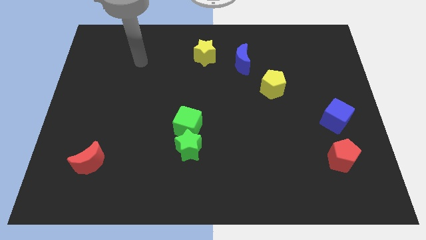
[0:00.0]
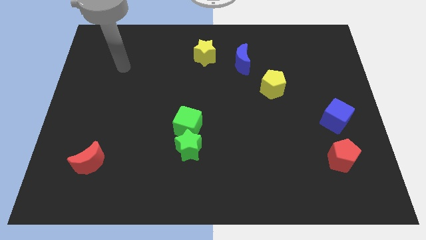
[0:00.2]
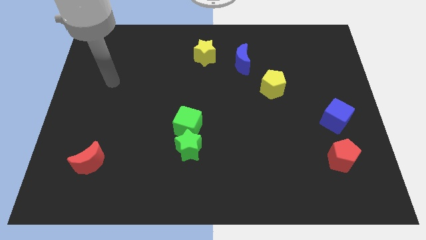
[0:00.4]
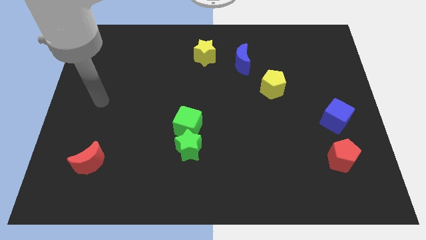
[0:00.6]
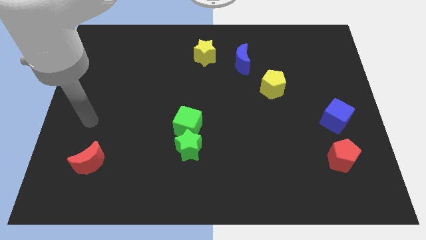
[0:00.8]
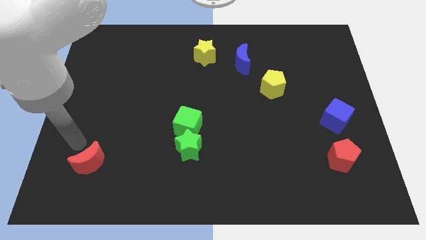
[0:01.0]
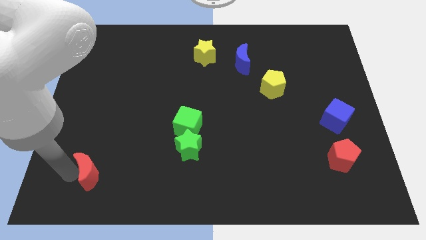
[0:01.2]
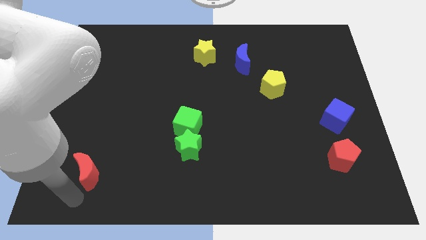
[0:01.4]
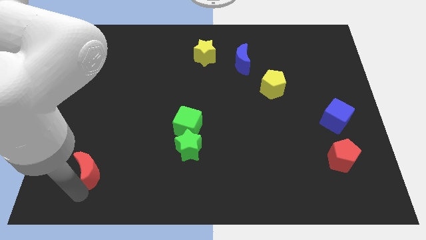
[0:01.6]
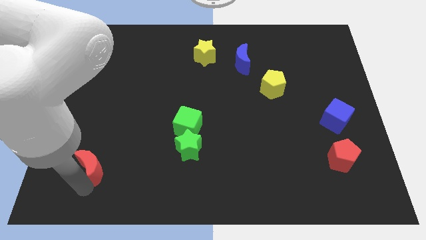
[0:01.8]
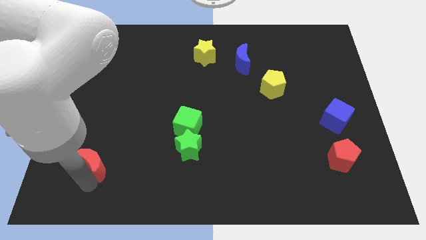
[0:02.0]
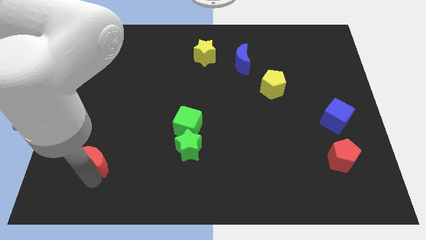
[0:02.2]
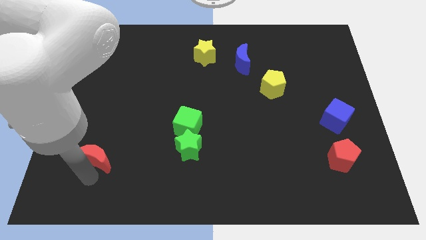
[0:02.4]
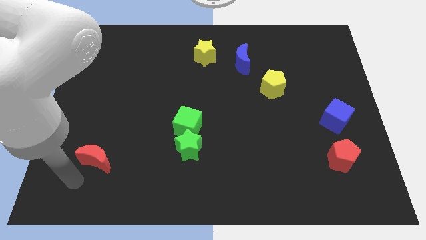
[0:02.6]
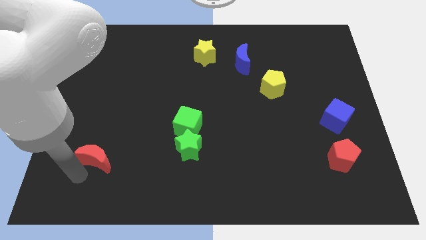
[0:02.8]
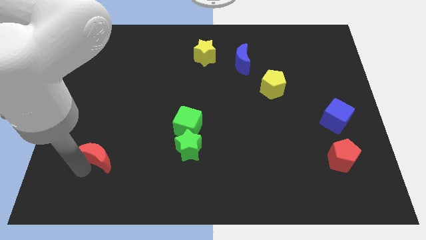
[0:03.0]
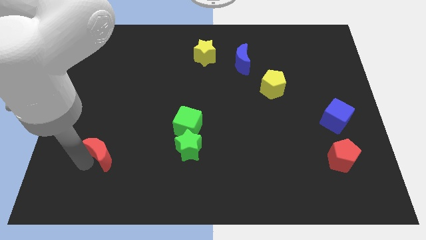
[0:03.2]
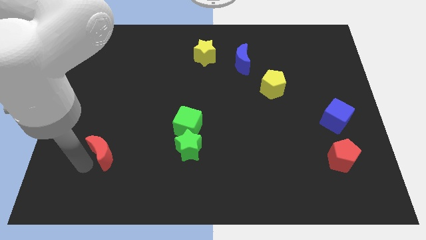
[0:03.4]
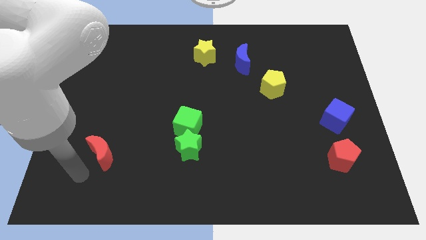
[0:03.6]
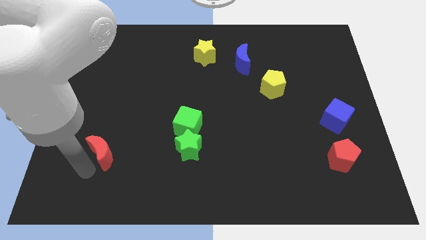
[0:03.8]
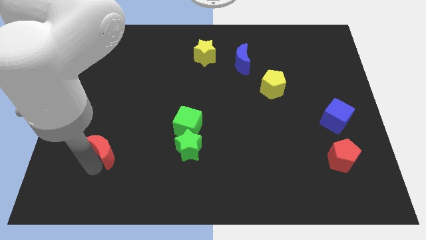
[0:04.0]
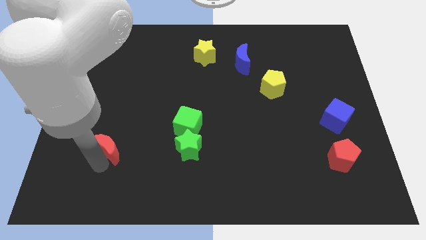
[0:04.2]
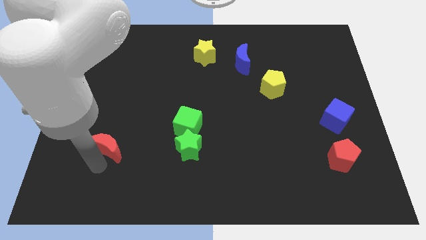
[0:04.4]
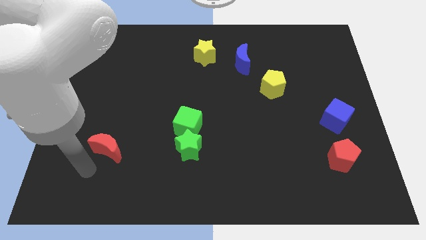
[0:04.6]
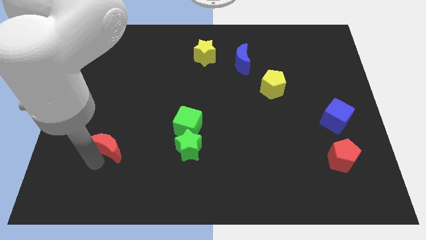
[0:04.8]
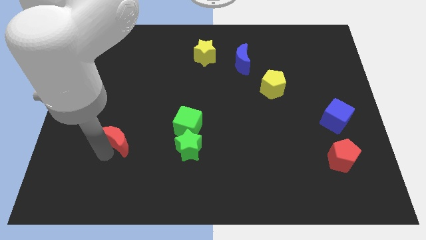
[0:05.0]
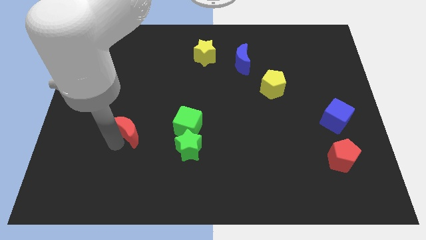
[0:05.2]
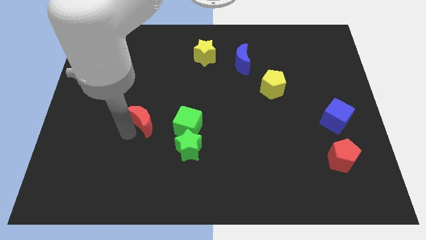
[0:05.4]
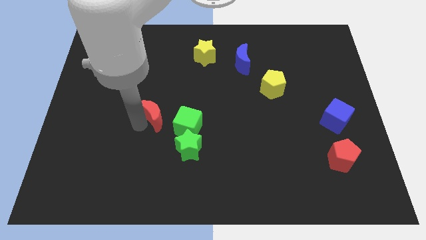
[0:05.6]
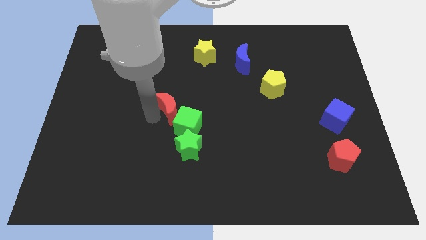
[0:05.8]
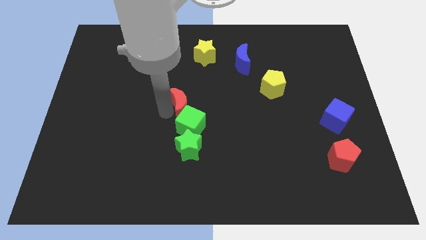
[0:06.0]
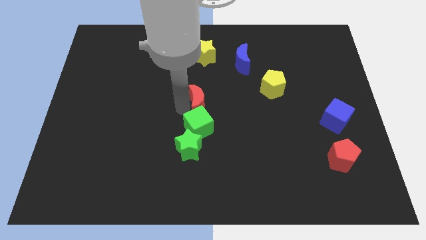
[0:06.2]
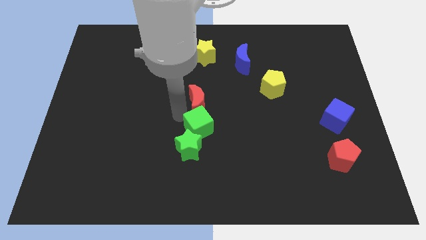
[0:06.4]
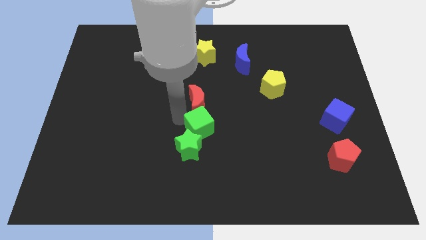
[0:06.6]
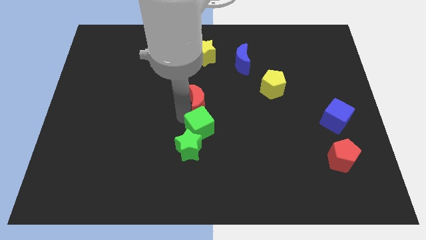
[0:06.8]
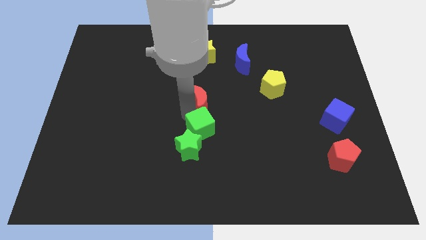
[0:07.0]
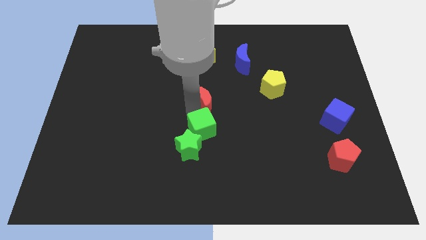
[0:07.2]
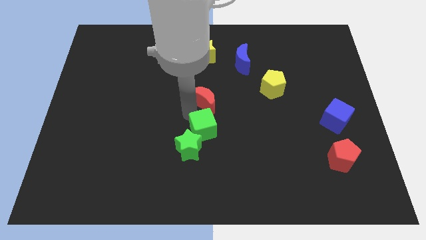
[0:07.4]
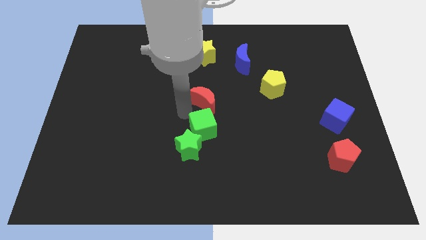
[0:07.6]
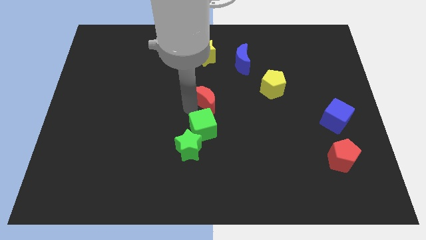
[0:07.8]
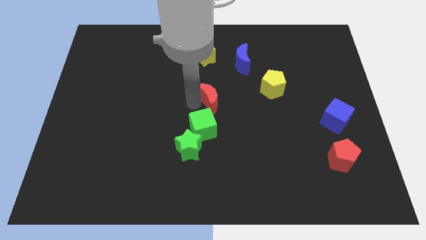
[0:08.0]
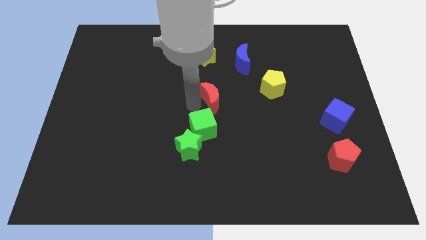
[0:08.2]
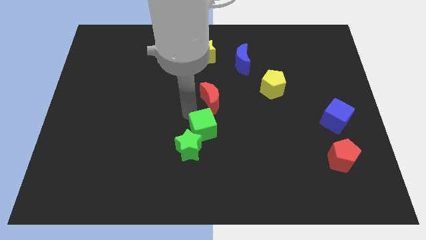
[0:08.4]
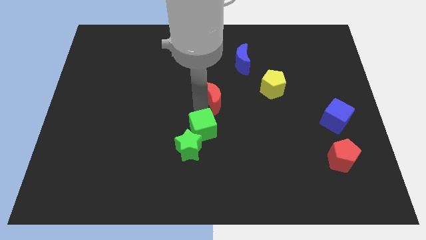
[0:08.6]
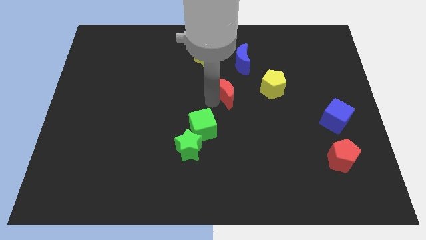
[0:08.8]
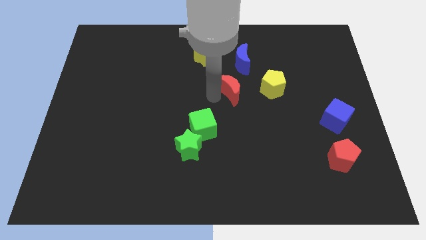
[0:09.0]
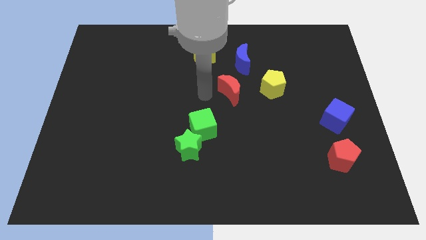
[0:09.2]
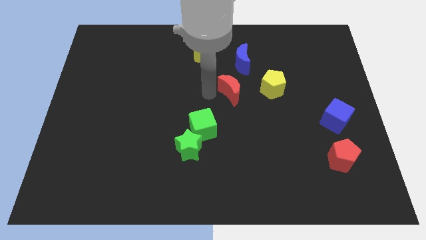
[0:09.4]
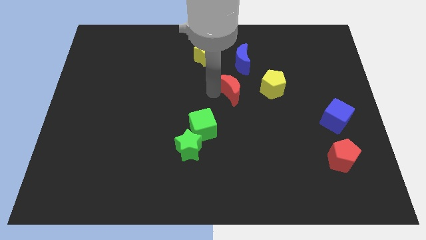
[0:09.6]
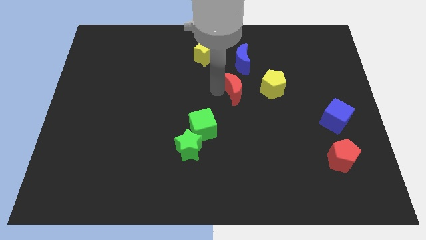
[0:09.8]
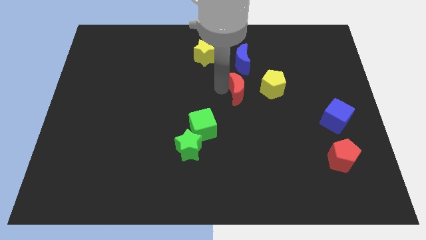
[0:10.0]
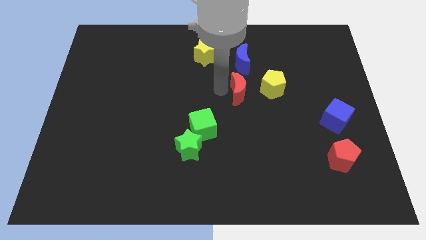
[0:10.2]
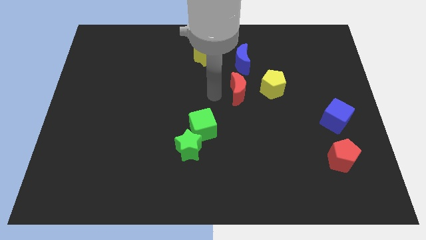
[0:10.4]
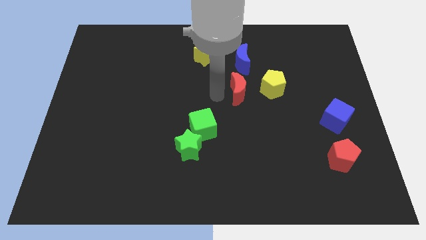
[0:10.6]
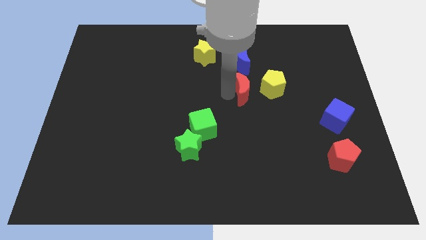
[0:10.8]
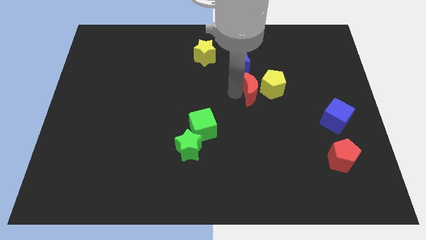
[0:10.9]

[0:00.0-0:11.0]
put the red moon close to the yellow pentagon

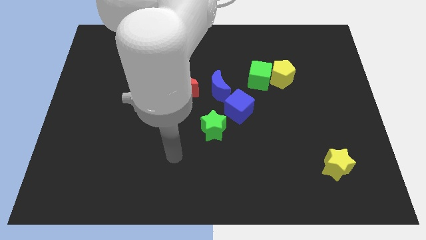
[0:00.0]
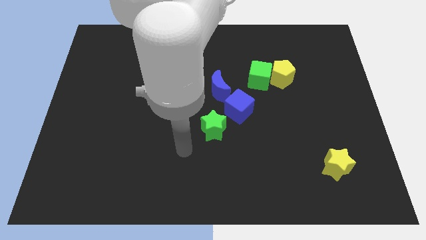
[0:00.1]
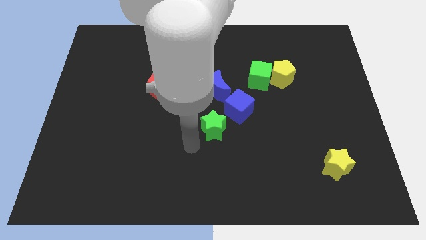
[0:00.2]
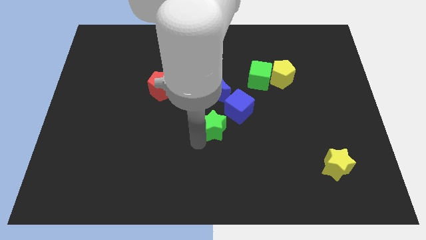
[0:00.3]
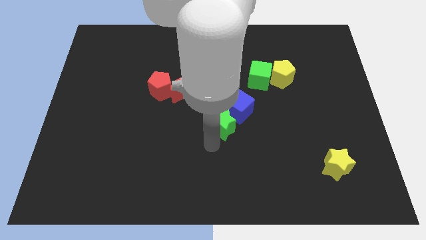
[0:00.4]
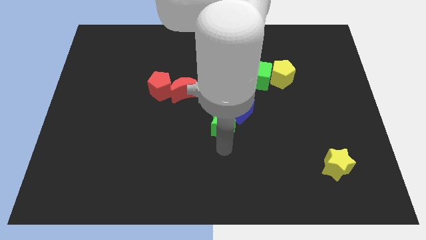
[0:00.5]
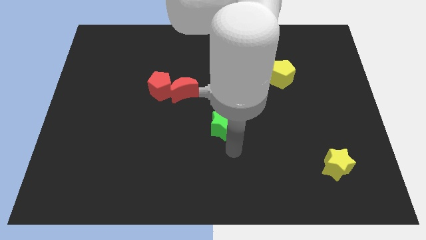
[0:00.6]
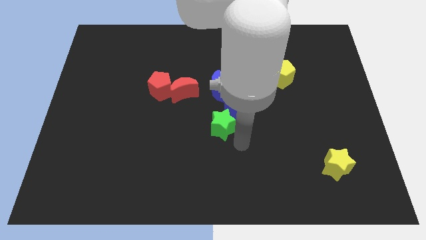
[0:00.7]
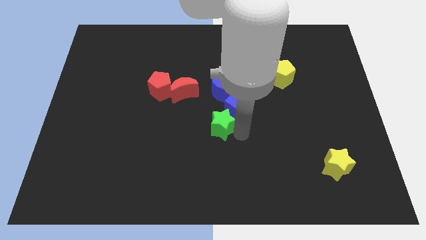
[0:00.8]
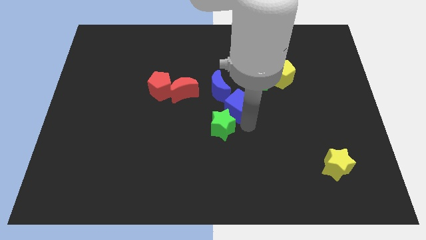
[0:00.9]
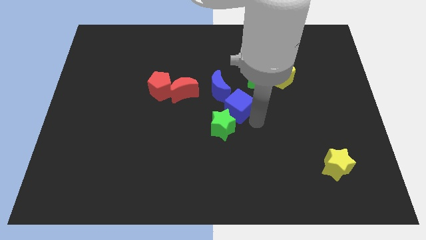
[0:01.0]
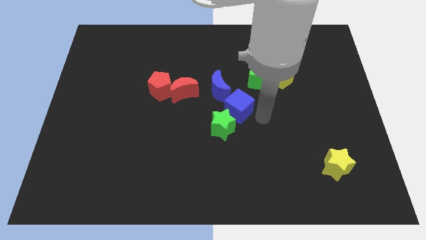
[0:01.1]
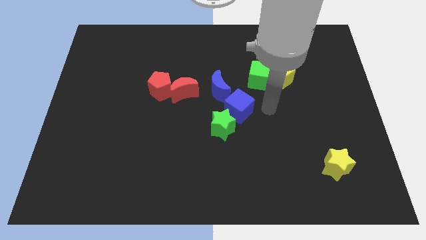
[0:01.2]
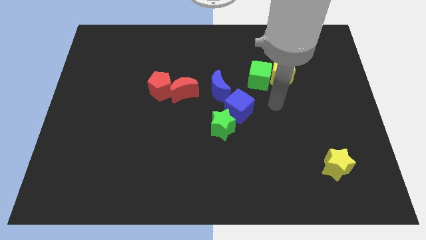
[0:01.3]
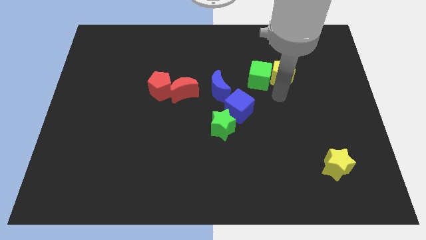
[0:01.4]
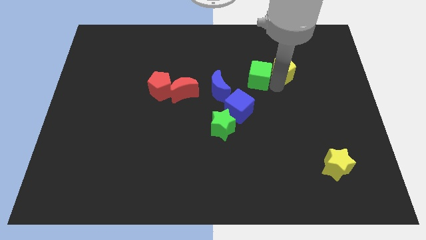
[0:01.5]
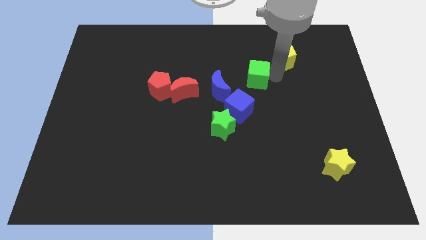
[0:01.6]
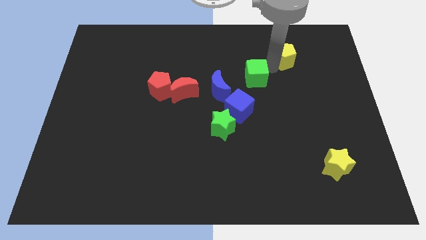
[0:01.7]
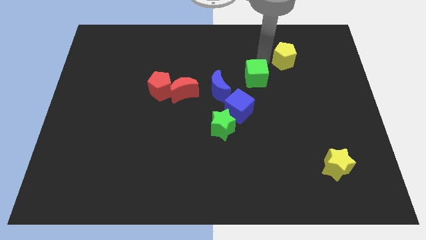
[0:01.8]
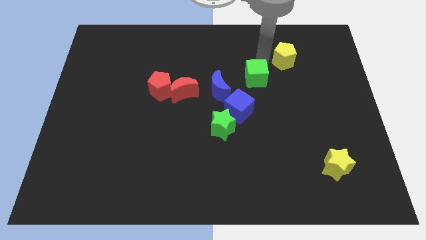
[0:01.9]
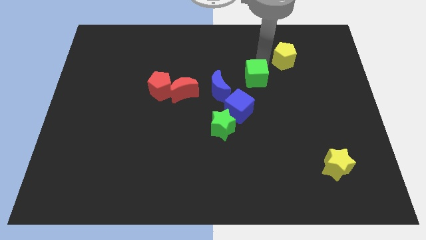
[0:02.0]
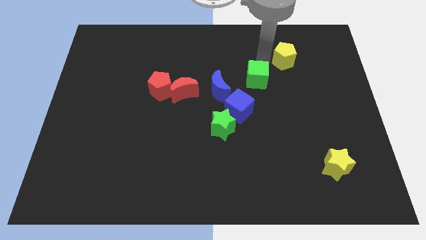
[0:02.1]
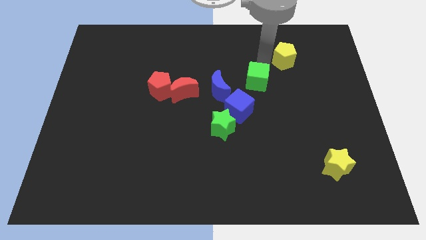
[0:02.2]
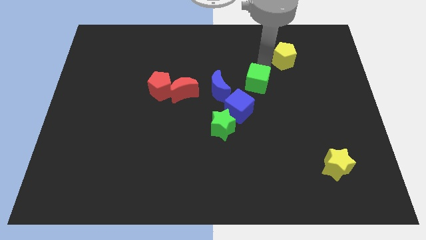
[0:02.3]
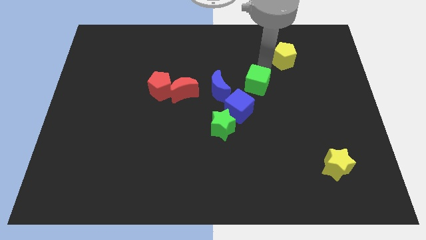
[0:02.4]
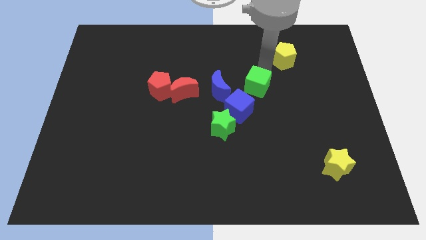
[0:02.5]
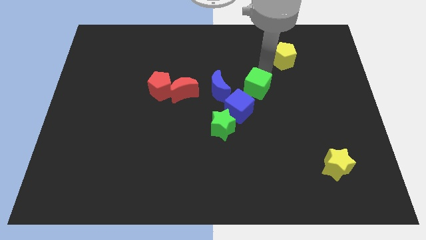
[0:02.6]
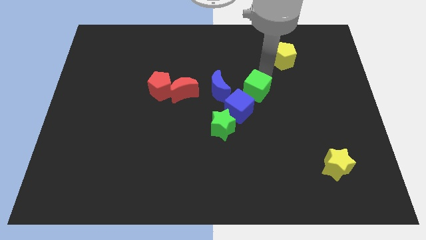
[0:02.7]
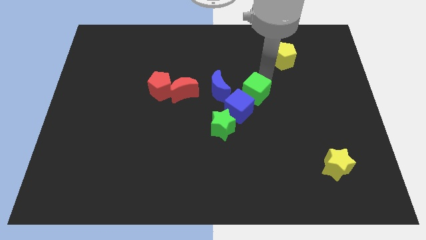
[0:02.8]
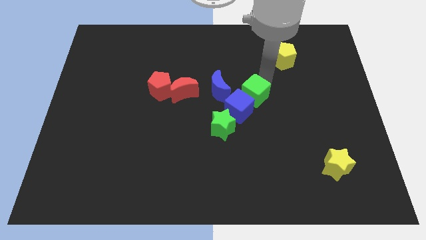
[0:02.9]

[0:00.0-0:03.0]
move the green cube close to the blue cube
